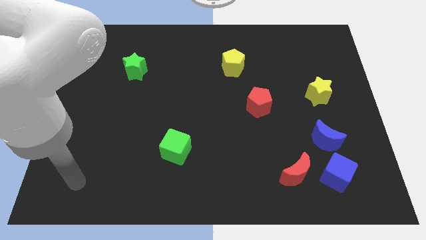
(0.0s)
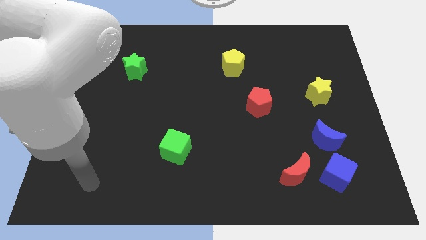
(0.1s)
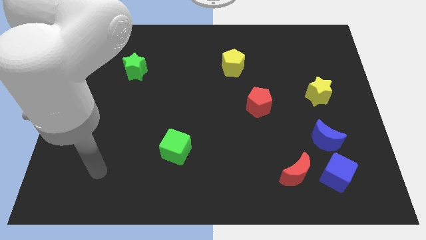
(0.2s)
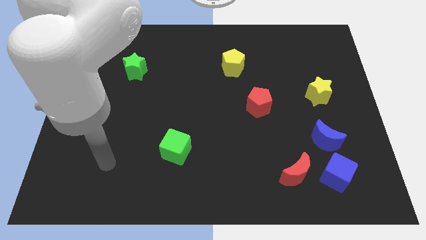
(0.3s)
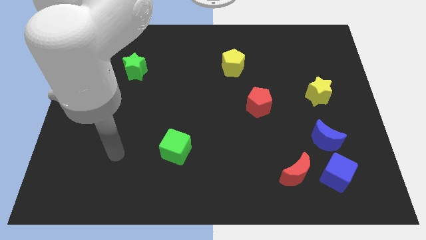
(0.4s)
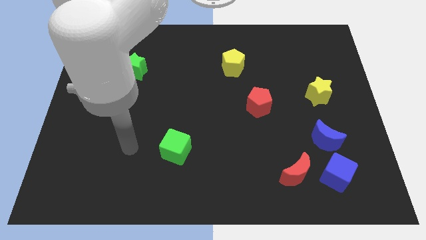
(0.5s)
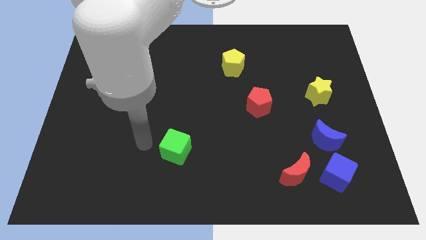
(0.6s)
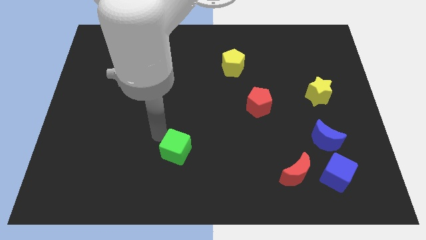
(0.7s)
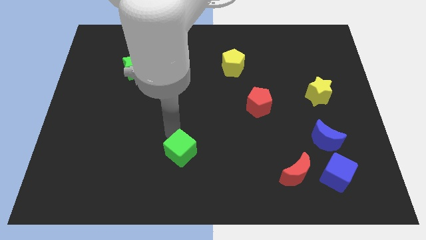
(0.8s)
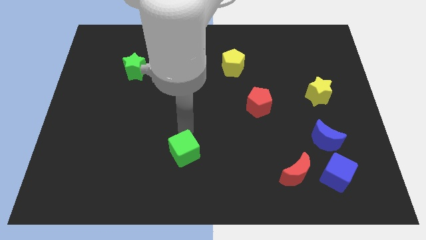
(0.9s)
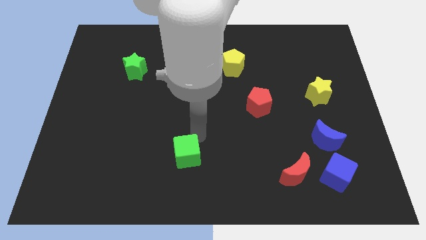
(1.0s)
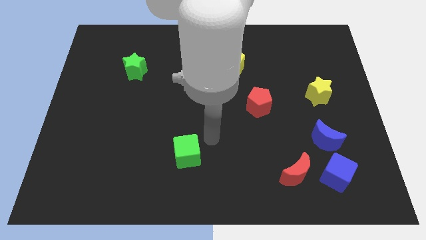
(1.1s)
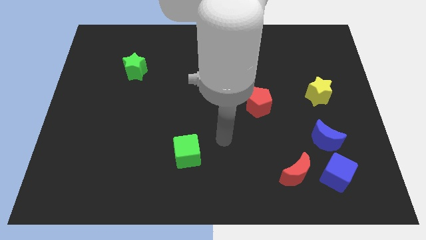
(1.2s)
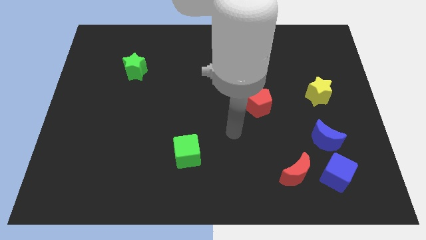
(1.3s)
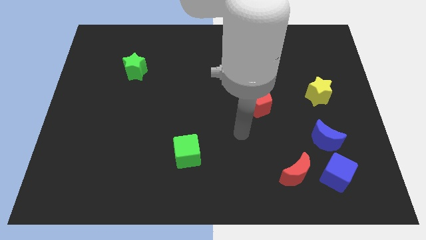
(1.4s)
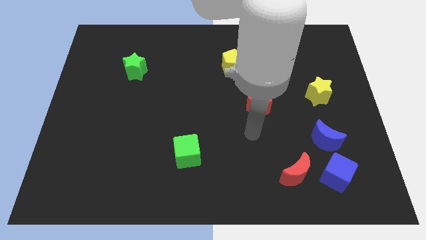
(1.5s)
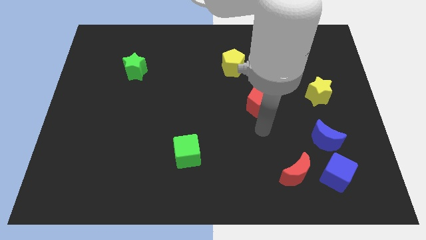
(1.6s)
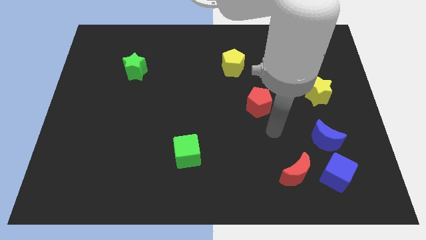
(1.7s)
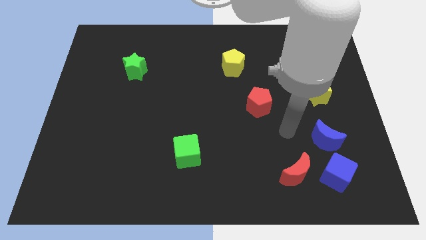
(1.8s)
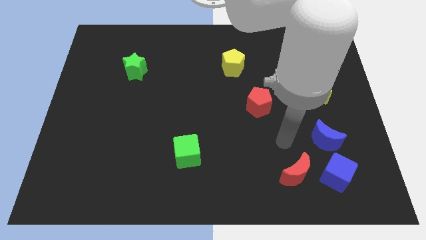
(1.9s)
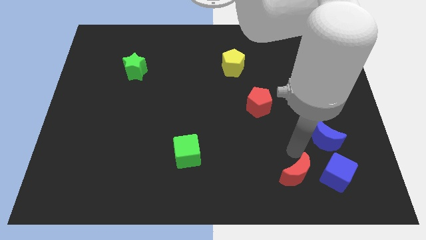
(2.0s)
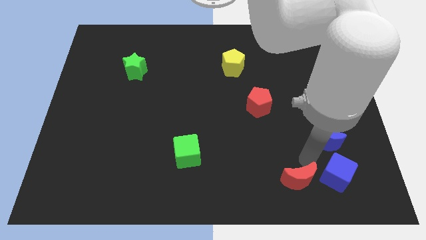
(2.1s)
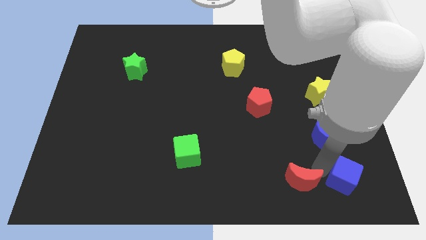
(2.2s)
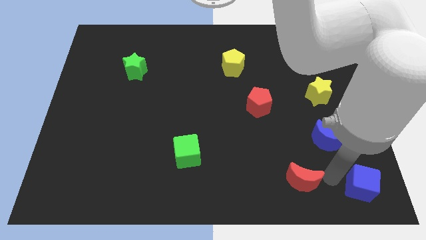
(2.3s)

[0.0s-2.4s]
separate the red moon from the blue cube

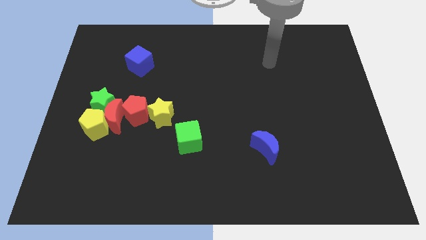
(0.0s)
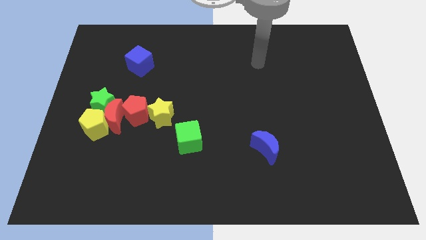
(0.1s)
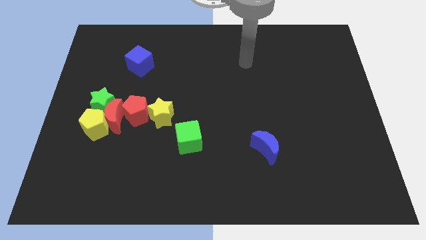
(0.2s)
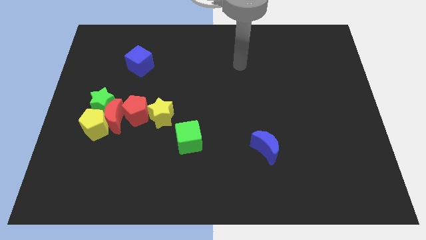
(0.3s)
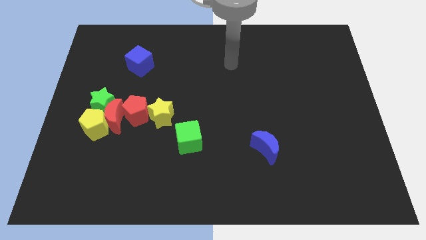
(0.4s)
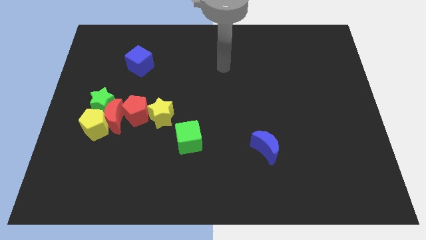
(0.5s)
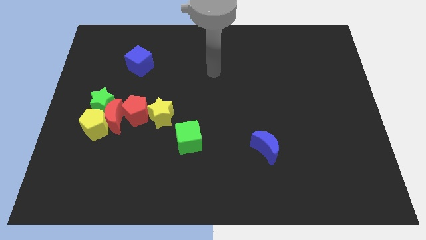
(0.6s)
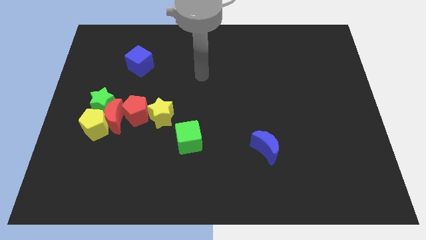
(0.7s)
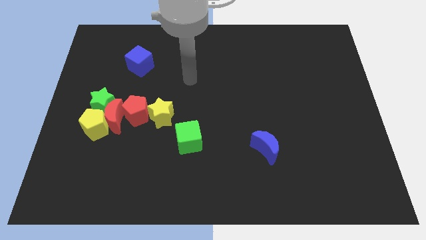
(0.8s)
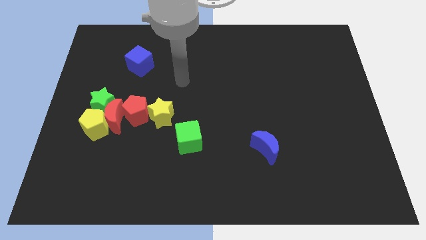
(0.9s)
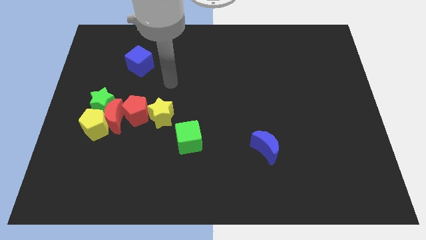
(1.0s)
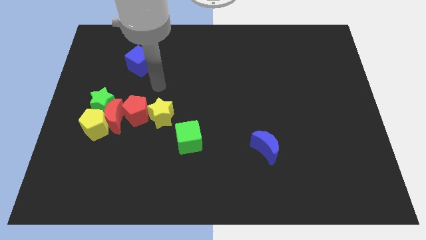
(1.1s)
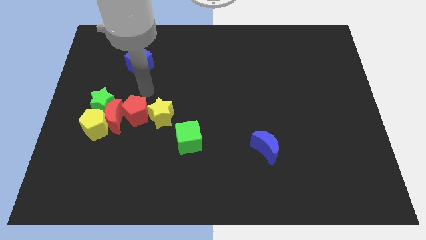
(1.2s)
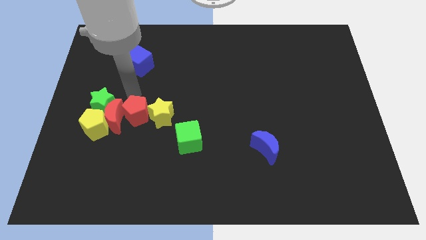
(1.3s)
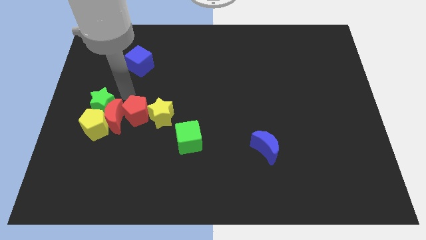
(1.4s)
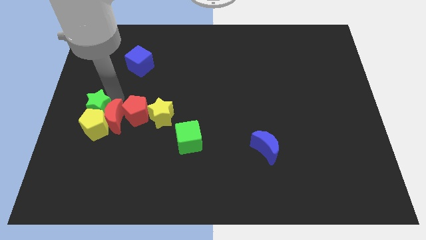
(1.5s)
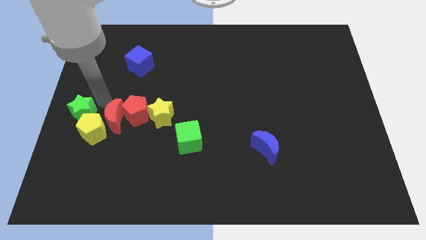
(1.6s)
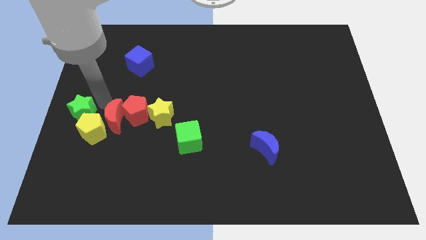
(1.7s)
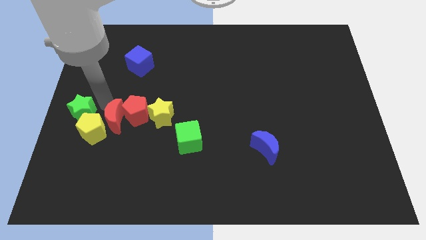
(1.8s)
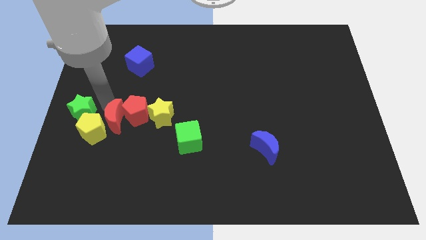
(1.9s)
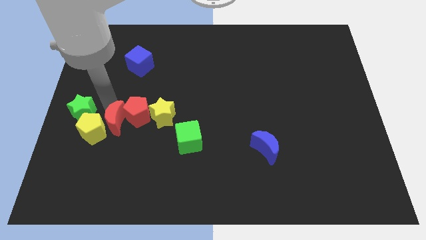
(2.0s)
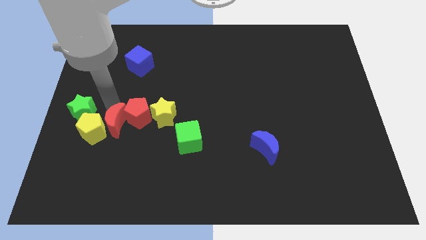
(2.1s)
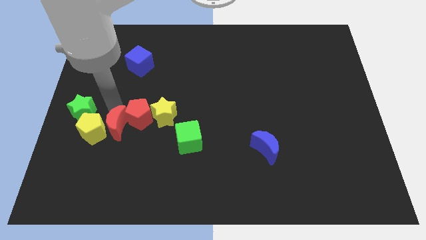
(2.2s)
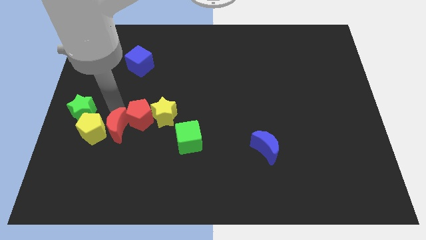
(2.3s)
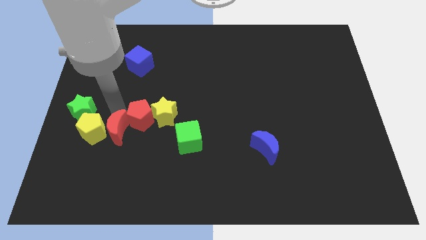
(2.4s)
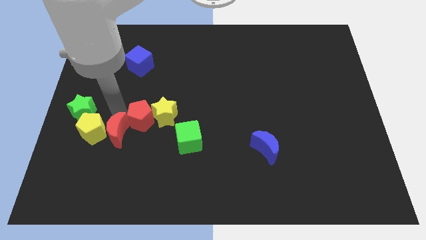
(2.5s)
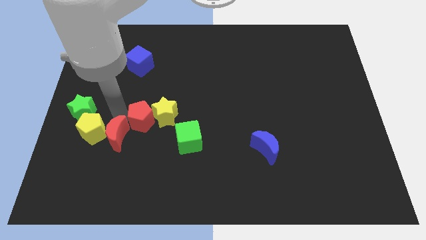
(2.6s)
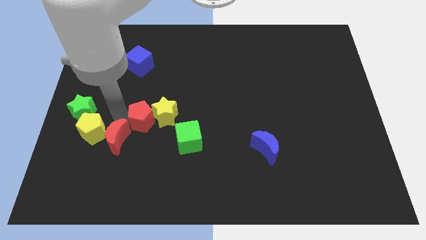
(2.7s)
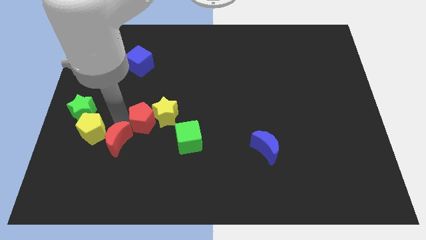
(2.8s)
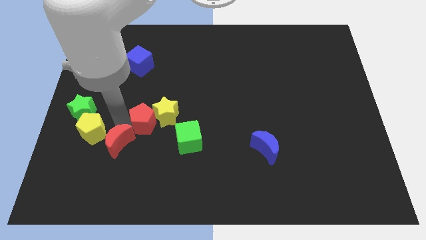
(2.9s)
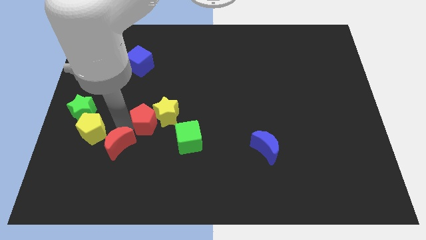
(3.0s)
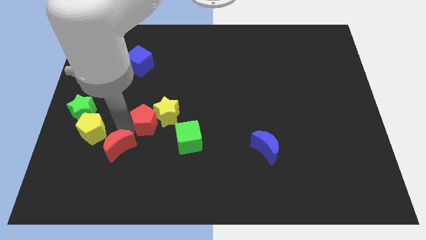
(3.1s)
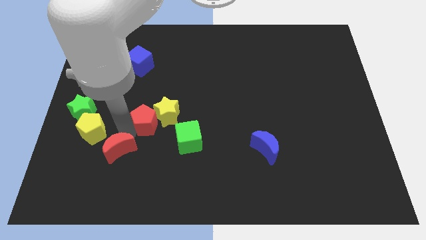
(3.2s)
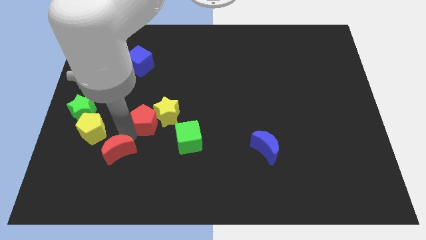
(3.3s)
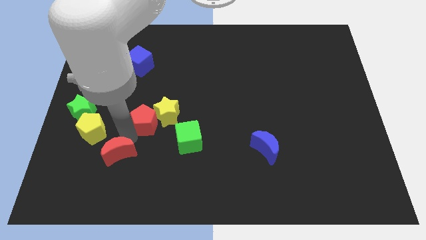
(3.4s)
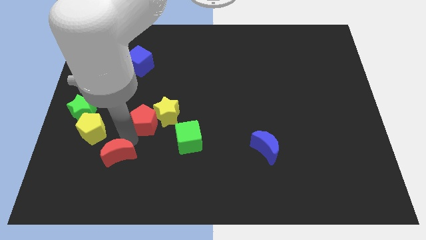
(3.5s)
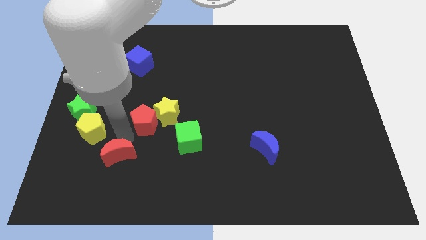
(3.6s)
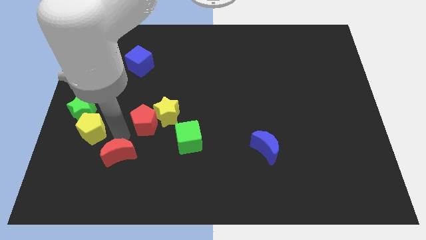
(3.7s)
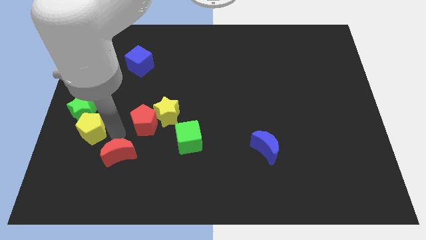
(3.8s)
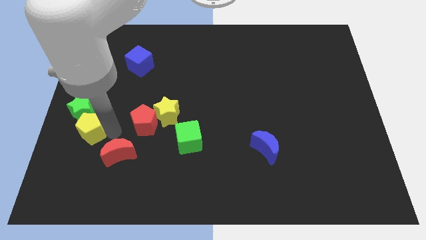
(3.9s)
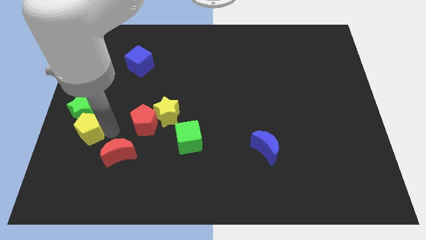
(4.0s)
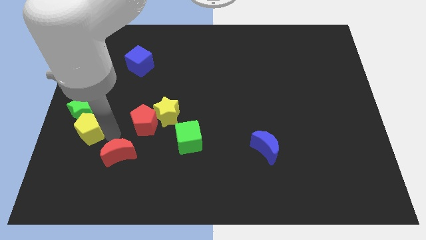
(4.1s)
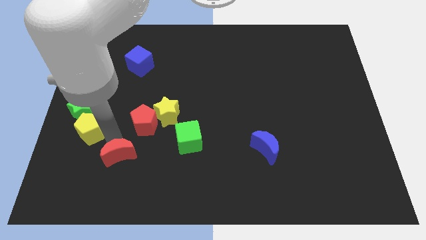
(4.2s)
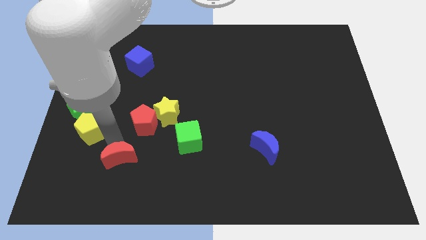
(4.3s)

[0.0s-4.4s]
move the red moon away from the yellow pentagon, green star, and red pentagon

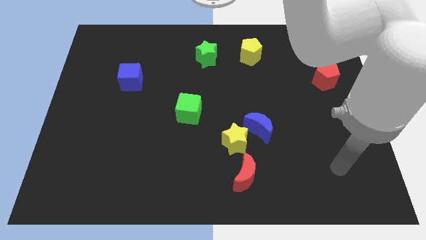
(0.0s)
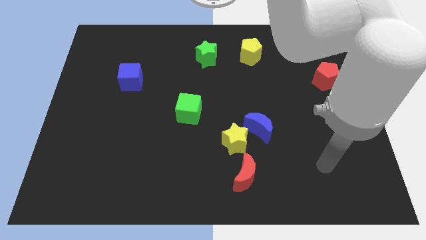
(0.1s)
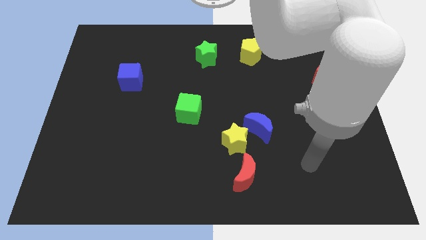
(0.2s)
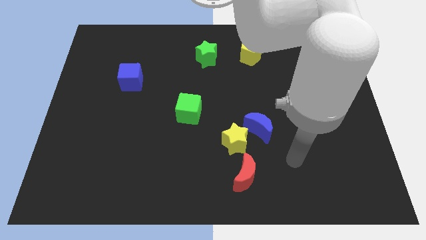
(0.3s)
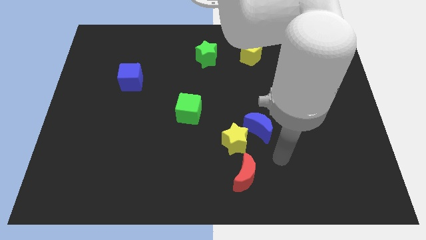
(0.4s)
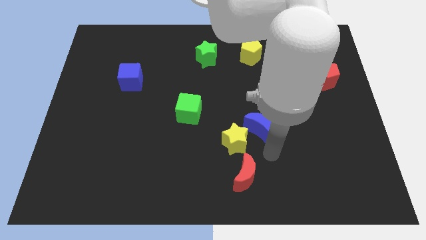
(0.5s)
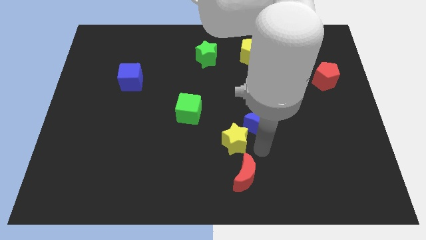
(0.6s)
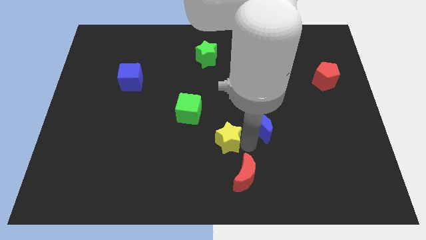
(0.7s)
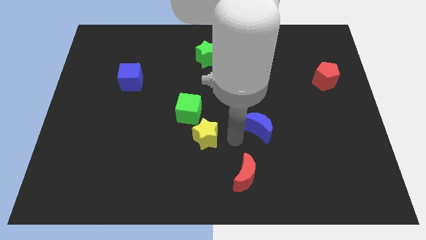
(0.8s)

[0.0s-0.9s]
move the blue moon away from the yellow star

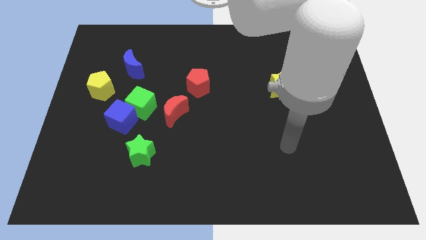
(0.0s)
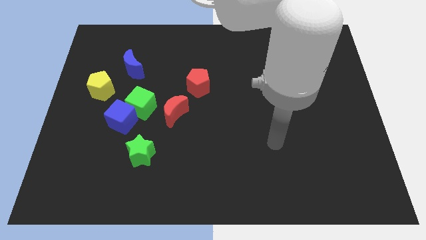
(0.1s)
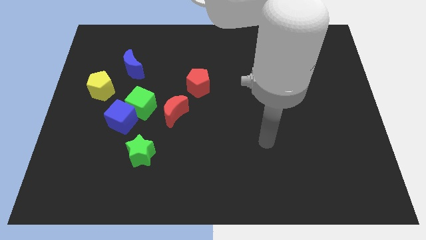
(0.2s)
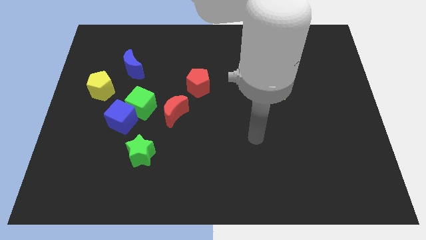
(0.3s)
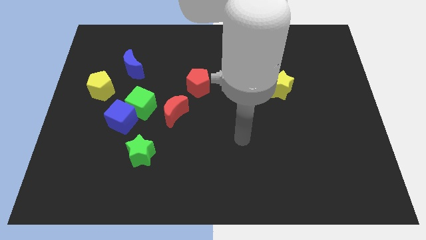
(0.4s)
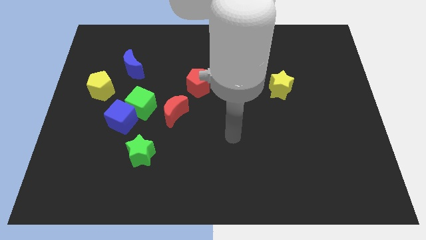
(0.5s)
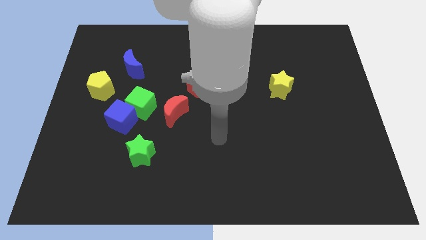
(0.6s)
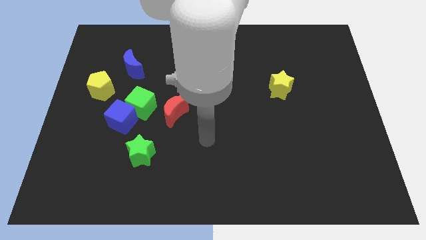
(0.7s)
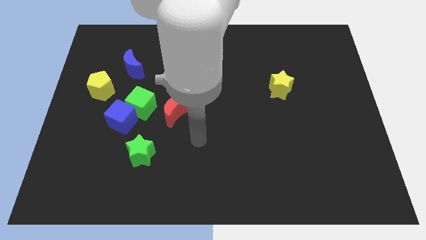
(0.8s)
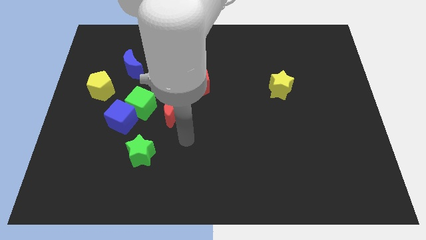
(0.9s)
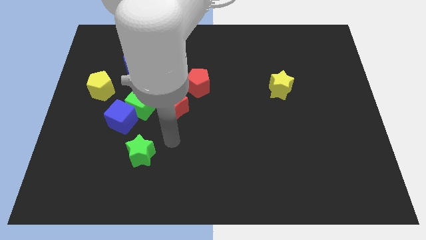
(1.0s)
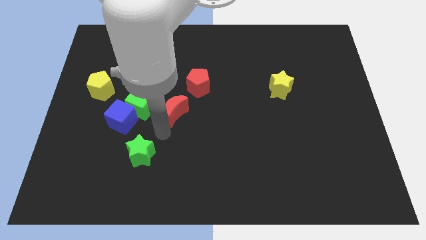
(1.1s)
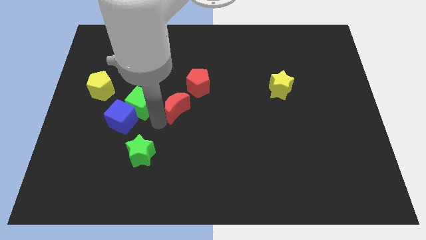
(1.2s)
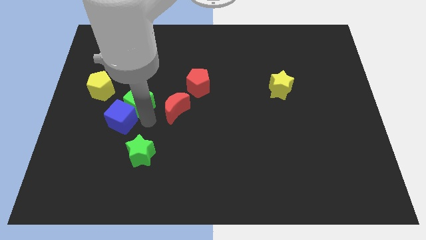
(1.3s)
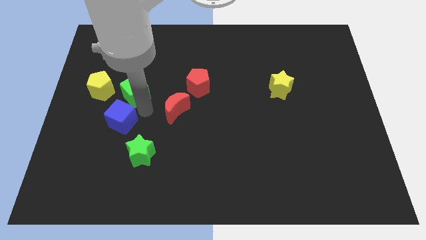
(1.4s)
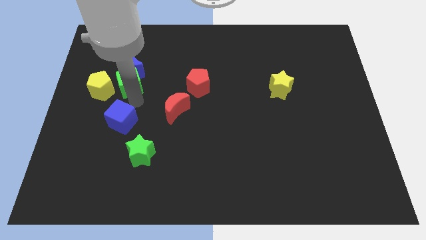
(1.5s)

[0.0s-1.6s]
move the blue cube away from the green cube
